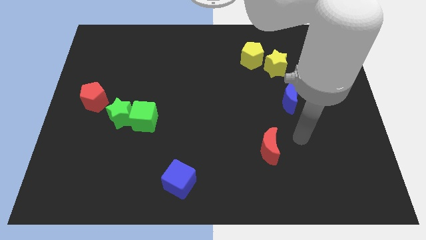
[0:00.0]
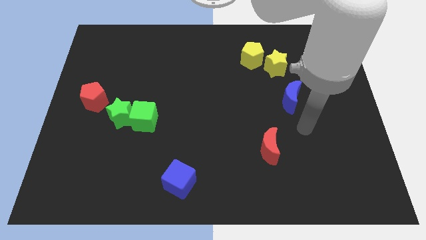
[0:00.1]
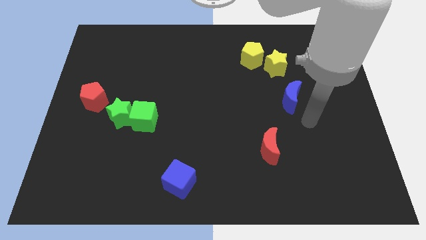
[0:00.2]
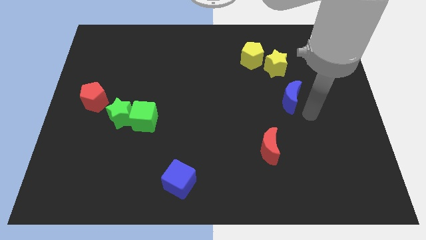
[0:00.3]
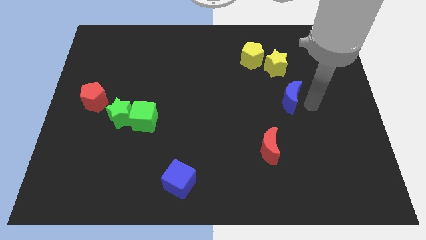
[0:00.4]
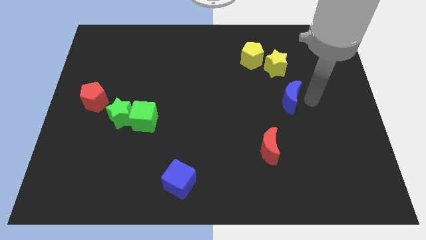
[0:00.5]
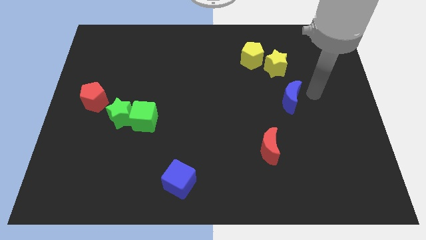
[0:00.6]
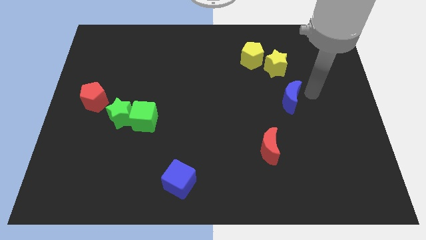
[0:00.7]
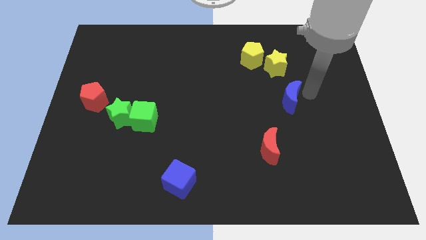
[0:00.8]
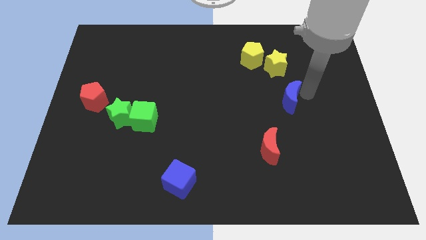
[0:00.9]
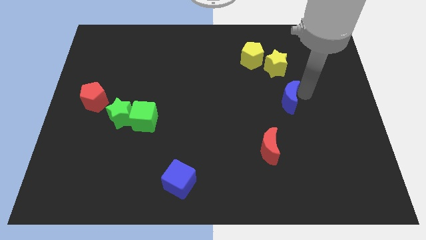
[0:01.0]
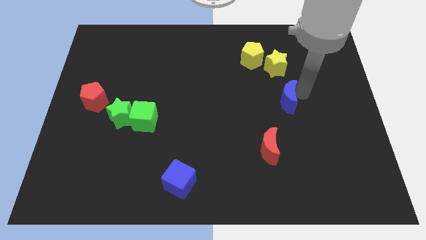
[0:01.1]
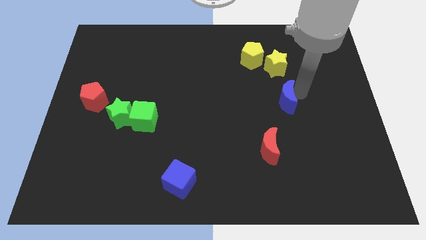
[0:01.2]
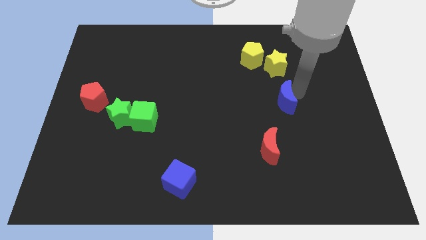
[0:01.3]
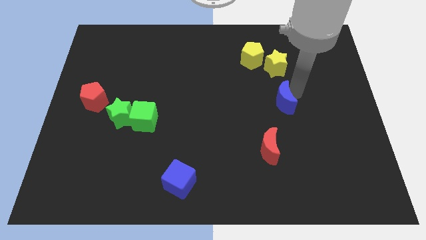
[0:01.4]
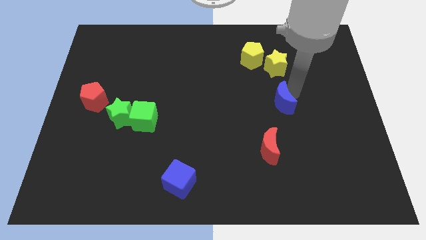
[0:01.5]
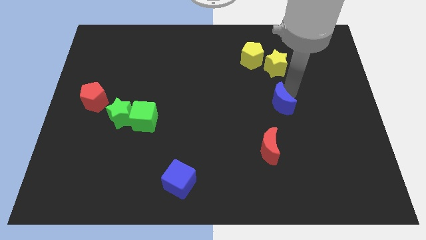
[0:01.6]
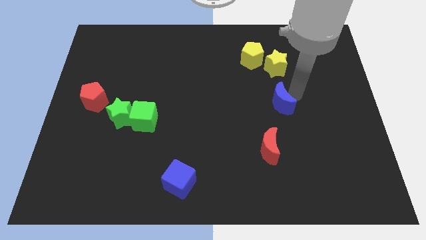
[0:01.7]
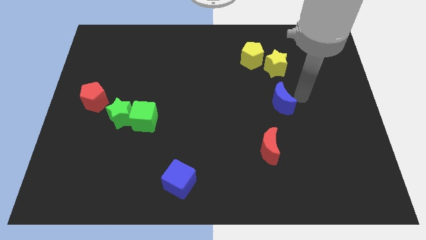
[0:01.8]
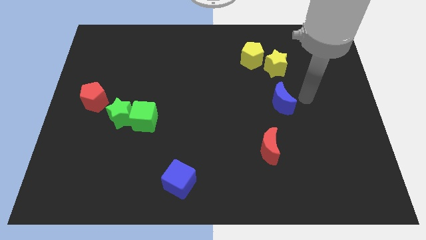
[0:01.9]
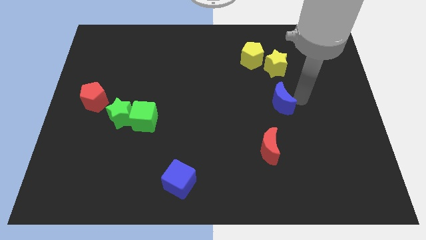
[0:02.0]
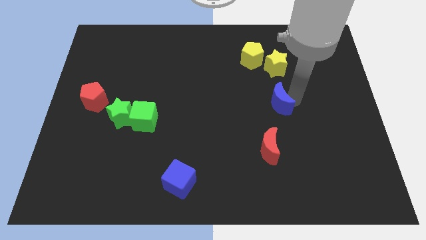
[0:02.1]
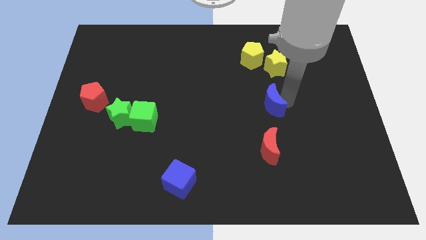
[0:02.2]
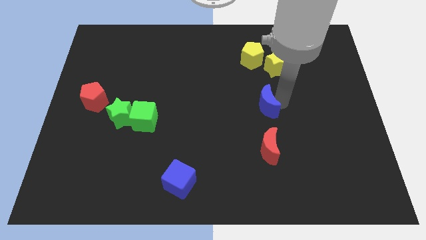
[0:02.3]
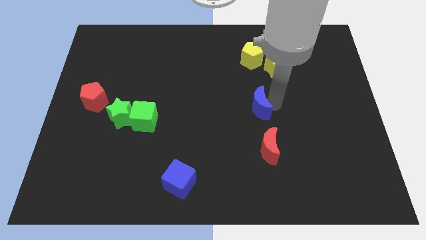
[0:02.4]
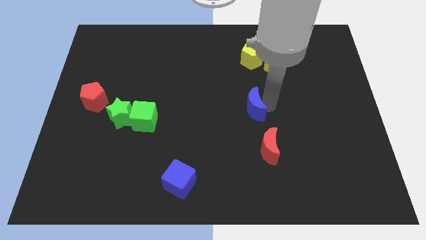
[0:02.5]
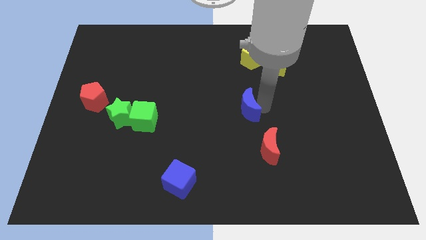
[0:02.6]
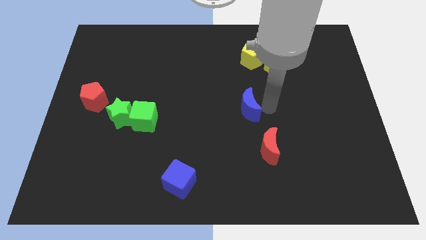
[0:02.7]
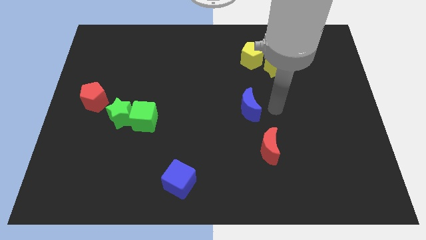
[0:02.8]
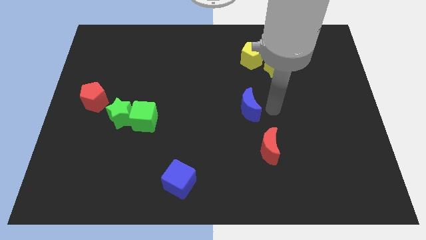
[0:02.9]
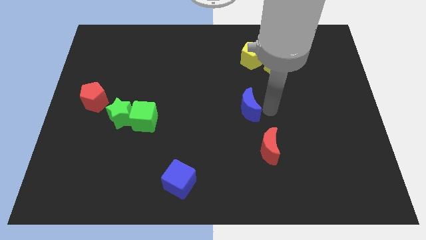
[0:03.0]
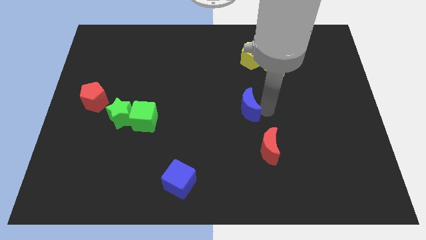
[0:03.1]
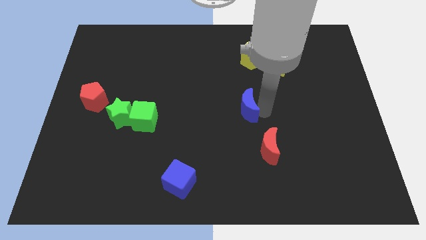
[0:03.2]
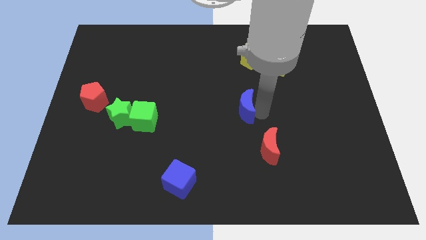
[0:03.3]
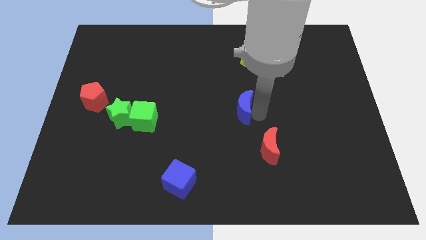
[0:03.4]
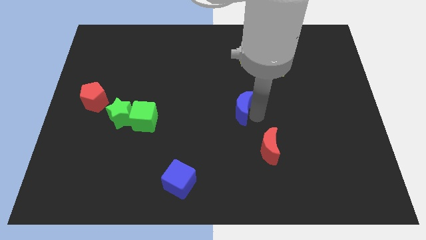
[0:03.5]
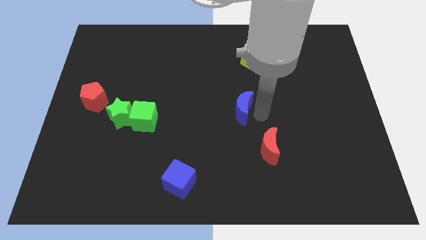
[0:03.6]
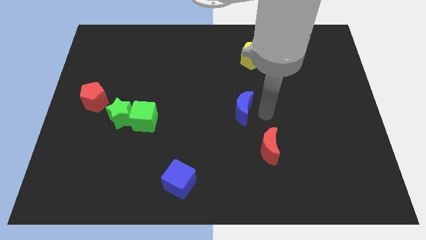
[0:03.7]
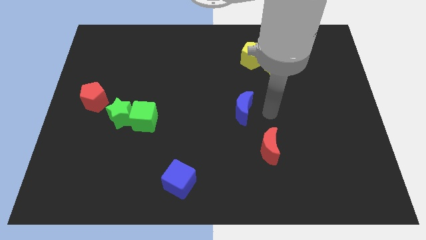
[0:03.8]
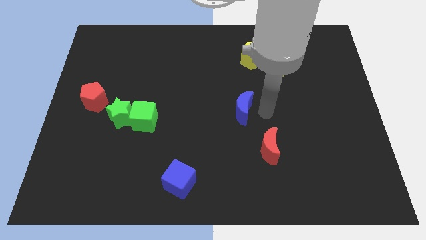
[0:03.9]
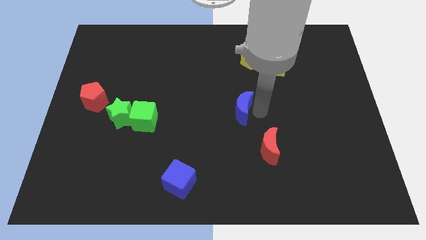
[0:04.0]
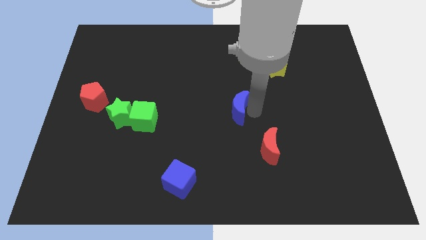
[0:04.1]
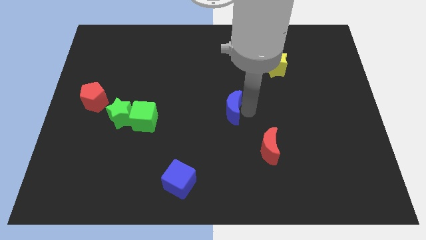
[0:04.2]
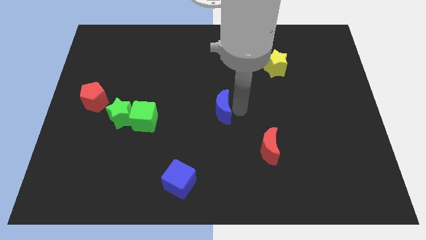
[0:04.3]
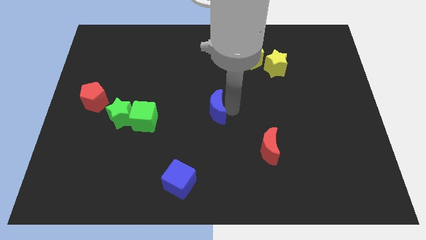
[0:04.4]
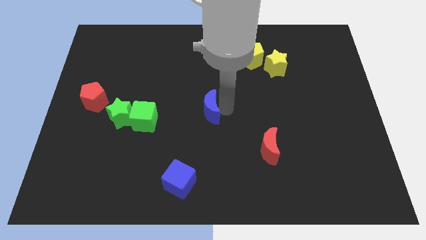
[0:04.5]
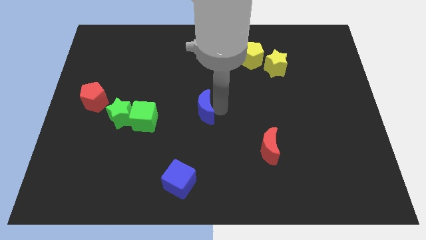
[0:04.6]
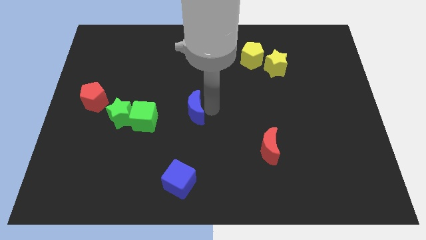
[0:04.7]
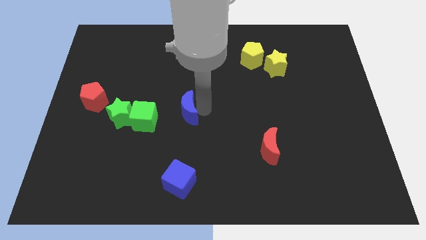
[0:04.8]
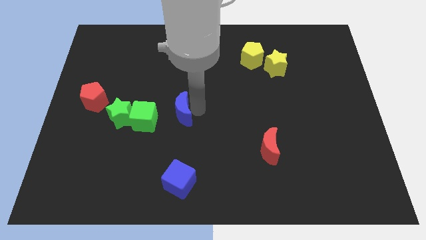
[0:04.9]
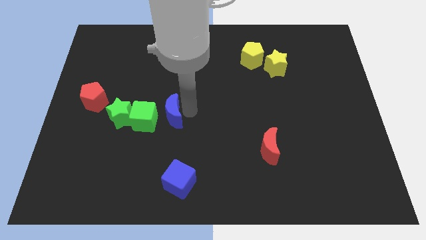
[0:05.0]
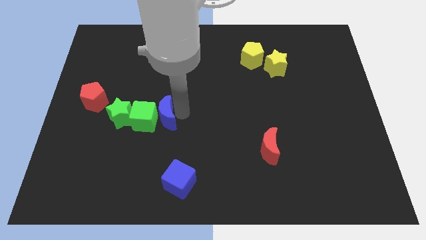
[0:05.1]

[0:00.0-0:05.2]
push the blue moon towards the green cube

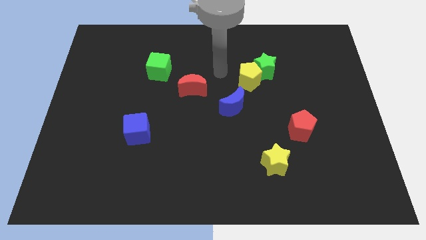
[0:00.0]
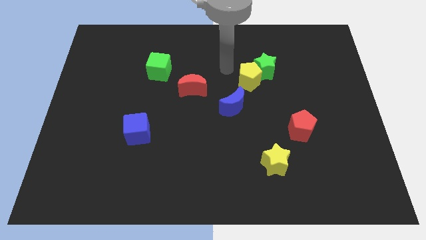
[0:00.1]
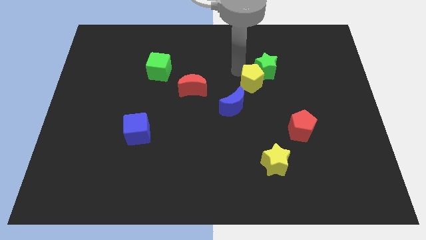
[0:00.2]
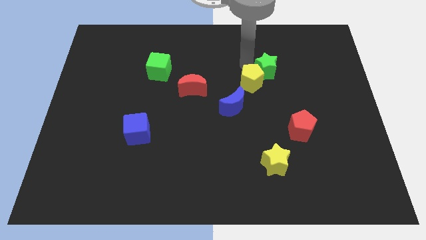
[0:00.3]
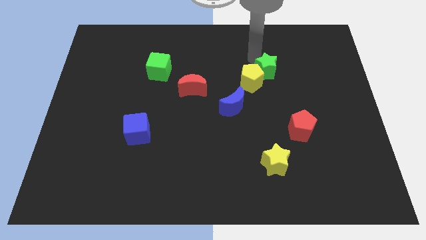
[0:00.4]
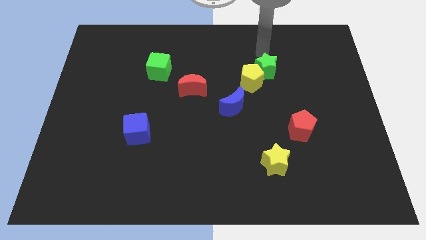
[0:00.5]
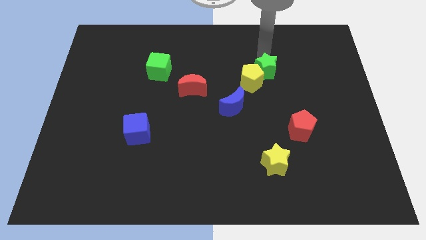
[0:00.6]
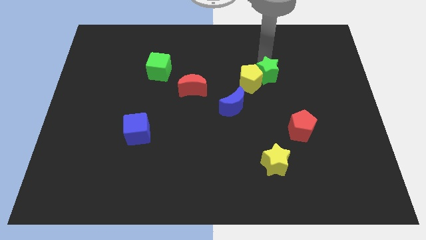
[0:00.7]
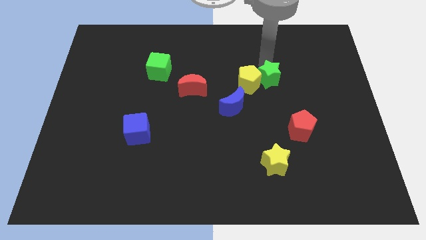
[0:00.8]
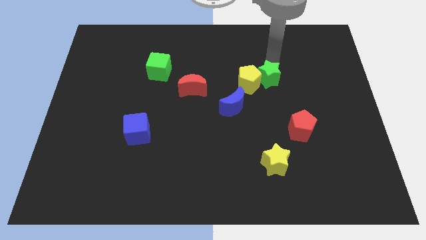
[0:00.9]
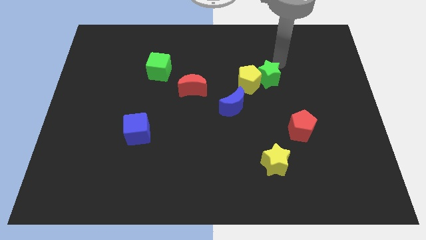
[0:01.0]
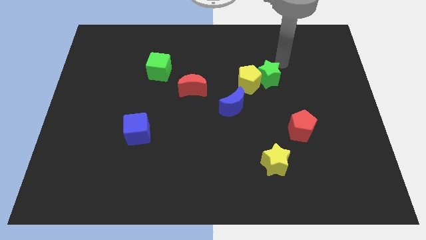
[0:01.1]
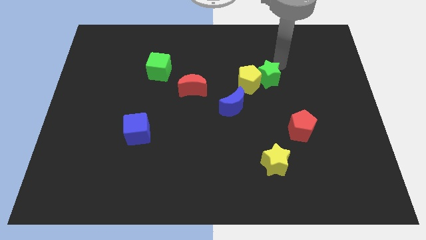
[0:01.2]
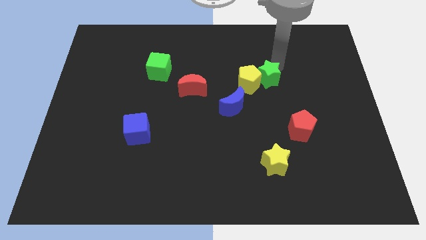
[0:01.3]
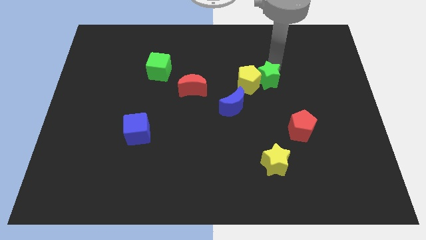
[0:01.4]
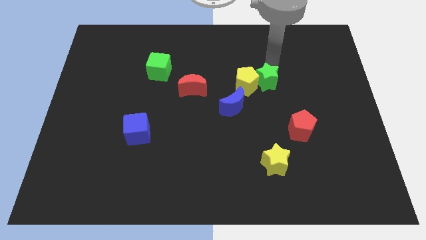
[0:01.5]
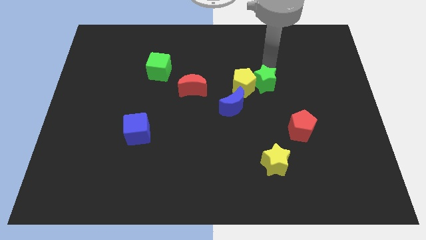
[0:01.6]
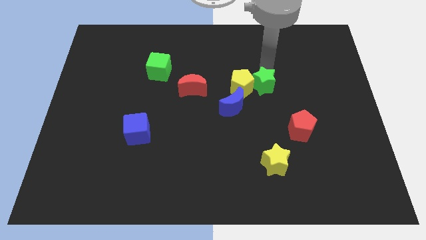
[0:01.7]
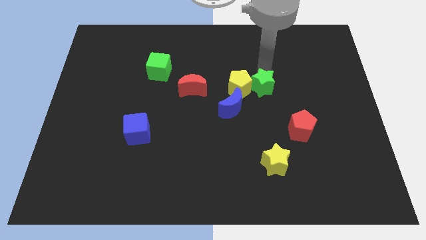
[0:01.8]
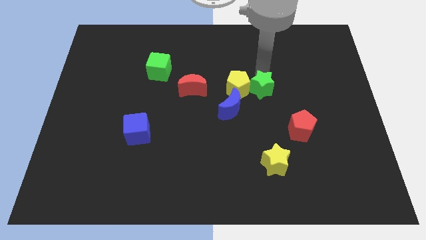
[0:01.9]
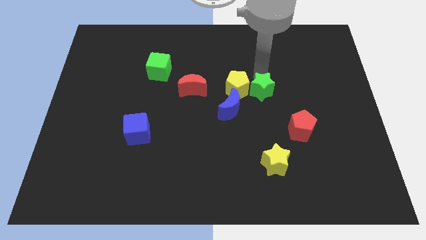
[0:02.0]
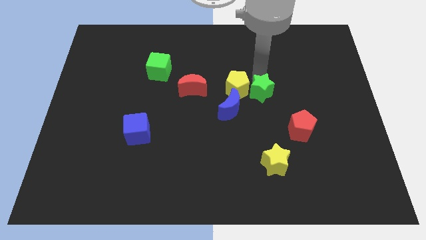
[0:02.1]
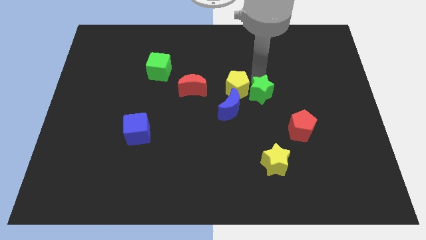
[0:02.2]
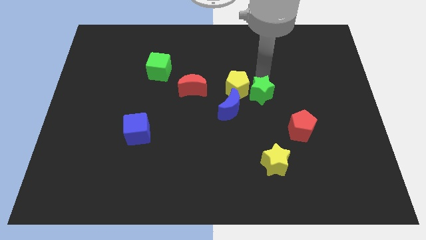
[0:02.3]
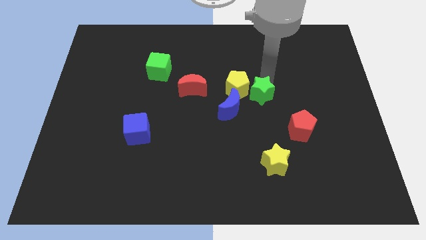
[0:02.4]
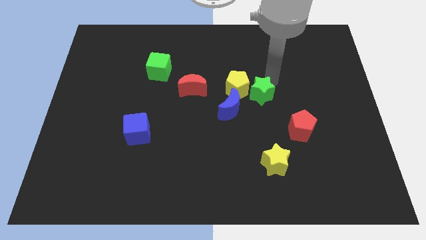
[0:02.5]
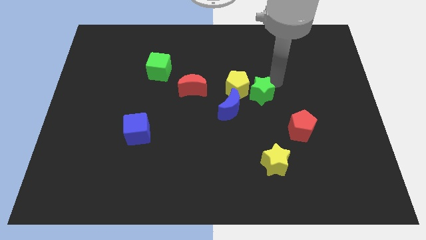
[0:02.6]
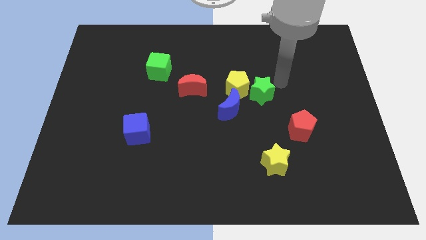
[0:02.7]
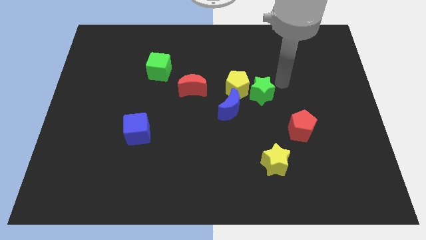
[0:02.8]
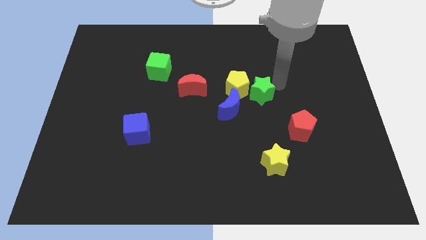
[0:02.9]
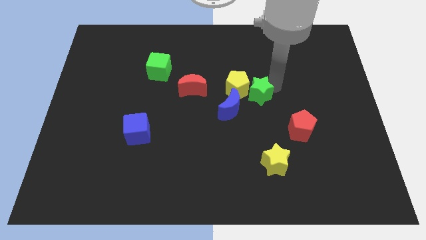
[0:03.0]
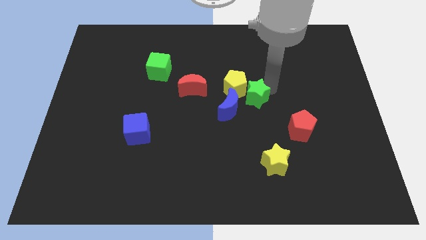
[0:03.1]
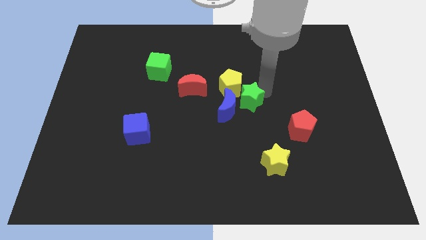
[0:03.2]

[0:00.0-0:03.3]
slide the green star close to the blue moon
